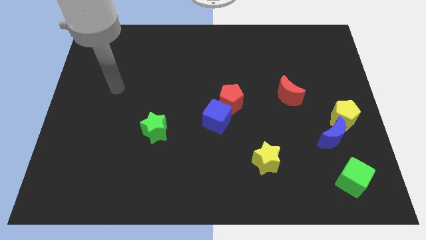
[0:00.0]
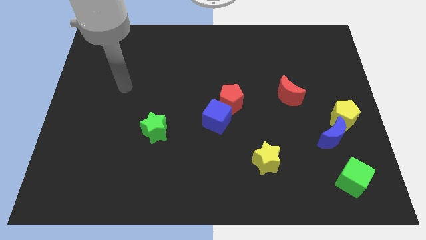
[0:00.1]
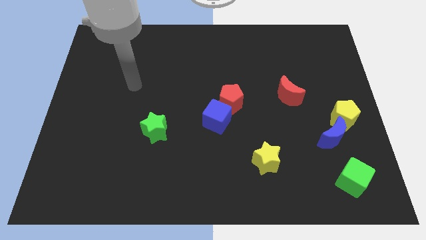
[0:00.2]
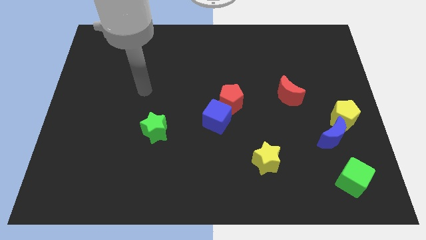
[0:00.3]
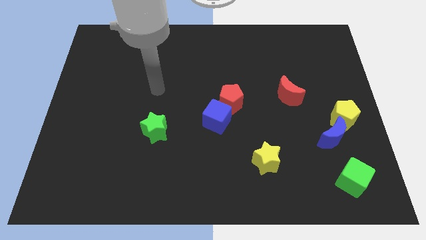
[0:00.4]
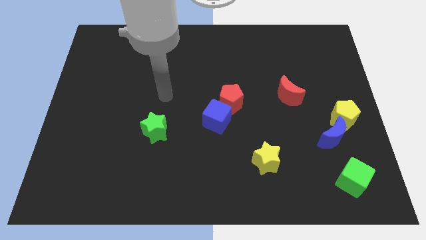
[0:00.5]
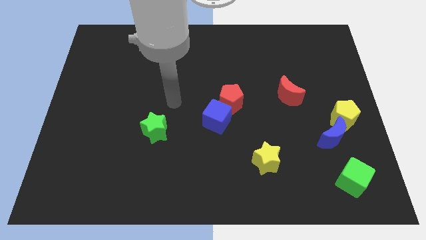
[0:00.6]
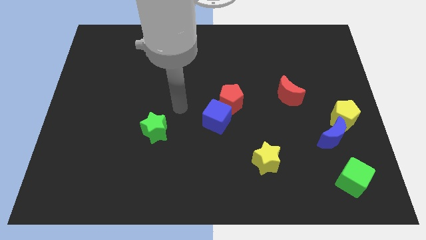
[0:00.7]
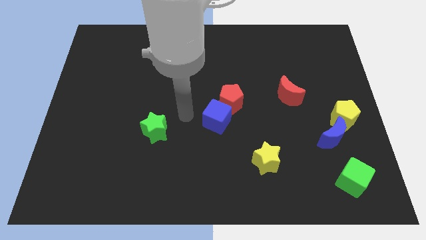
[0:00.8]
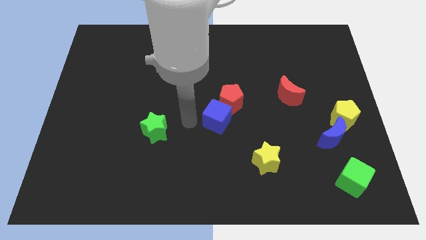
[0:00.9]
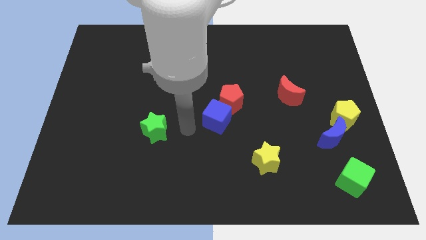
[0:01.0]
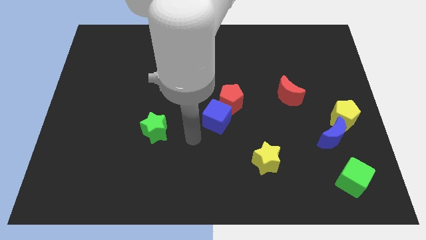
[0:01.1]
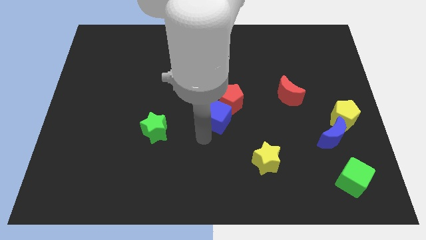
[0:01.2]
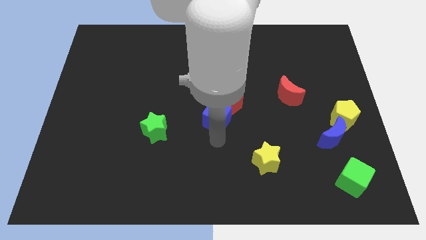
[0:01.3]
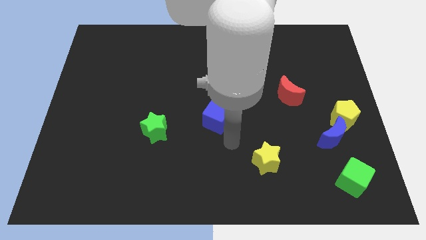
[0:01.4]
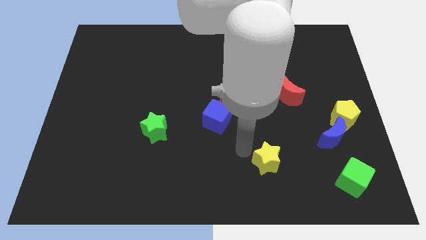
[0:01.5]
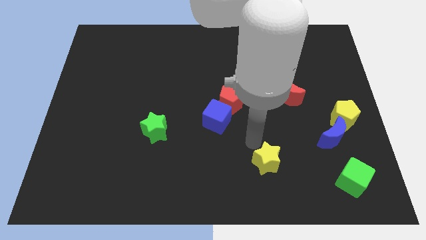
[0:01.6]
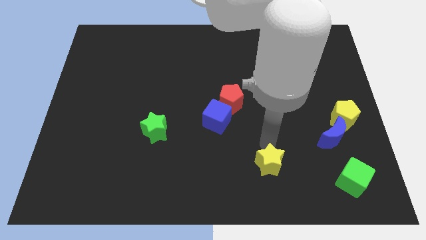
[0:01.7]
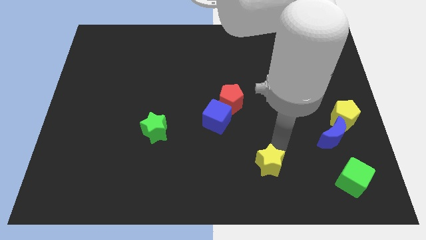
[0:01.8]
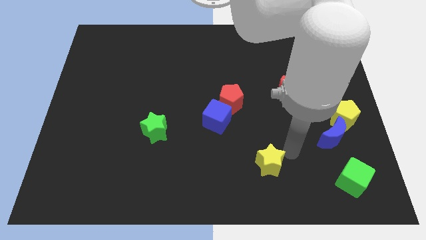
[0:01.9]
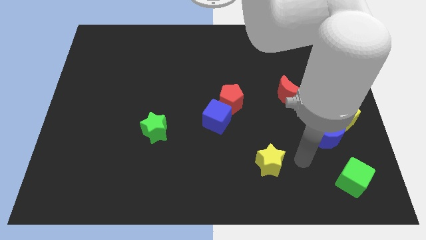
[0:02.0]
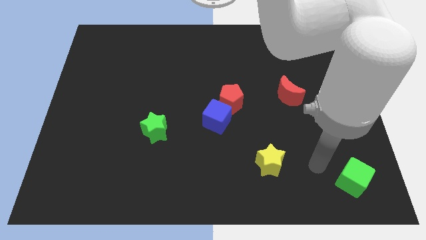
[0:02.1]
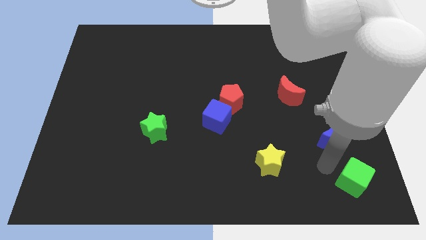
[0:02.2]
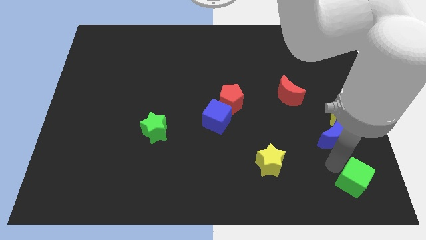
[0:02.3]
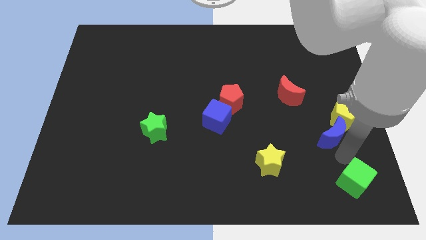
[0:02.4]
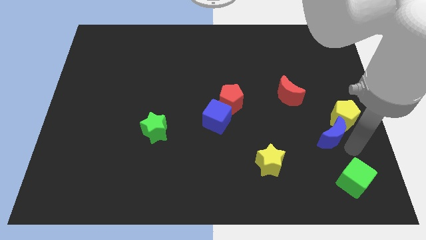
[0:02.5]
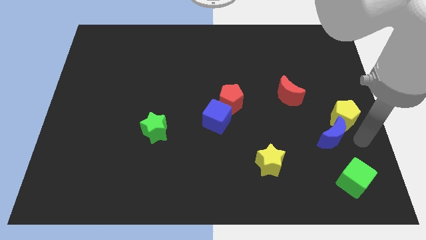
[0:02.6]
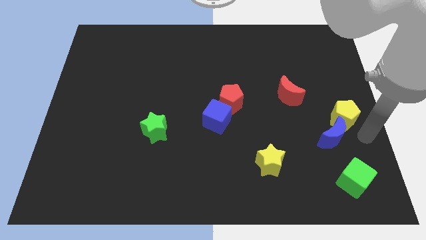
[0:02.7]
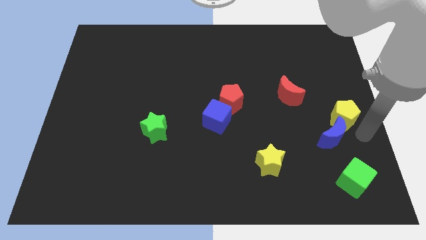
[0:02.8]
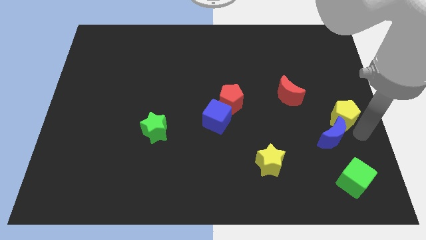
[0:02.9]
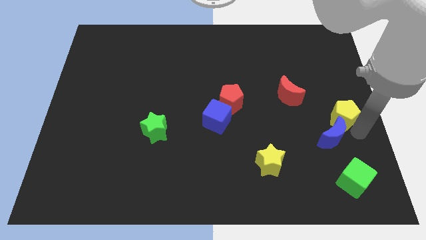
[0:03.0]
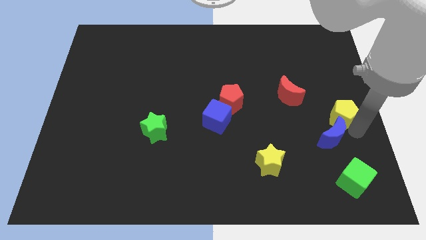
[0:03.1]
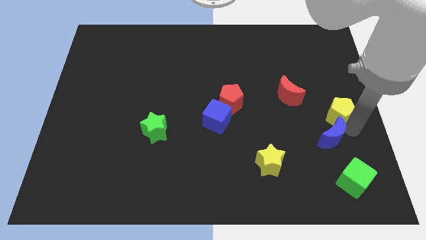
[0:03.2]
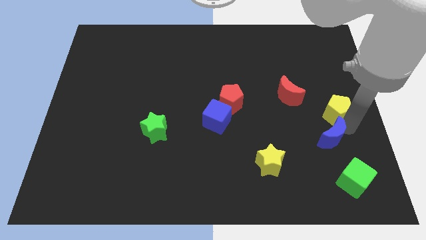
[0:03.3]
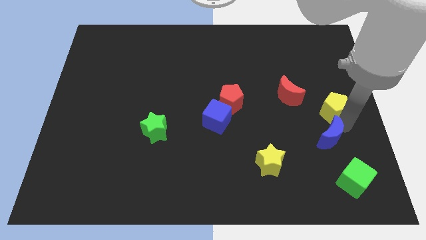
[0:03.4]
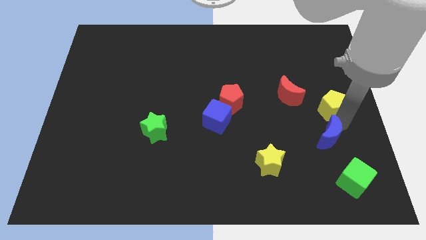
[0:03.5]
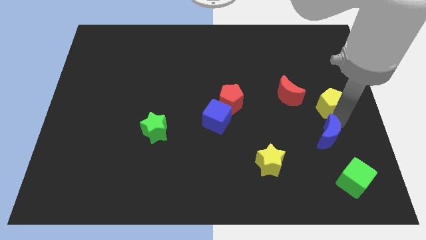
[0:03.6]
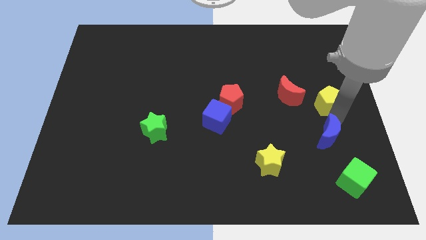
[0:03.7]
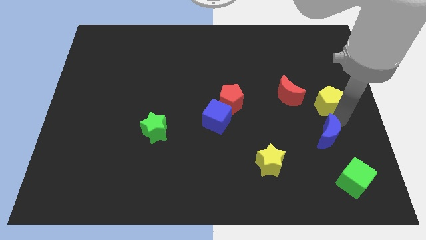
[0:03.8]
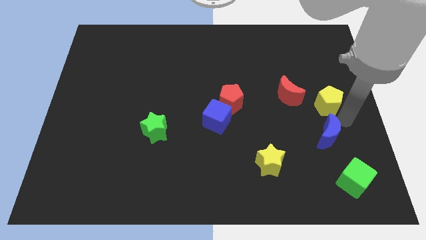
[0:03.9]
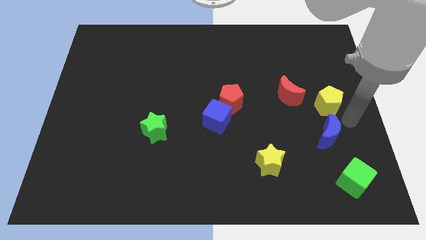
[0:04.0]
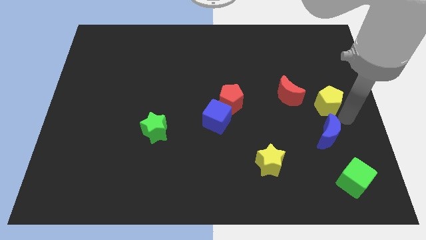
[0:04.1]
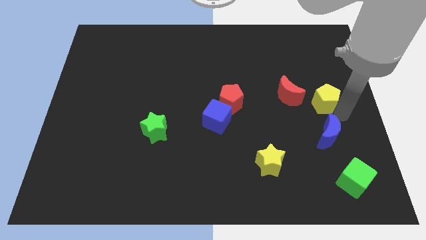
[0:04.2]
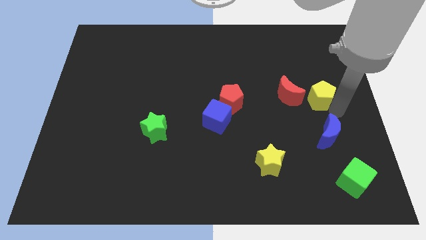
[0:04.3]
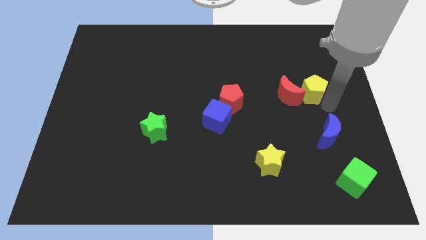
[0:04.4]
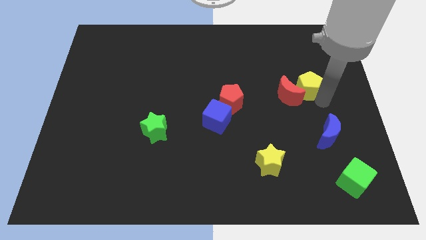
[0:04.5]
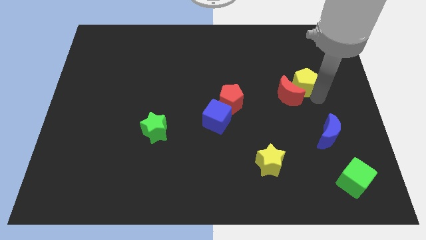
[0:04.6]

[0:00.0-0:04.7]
move the yellow pentagon above the red moon

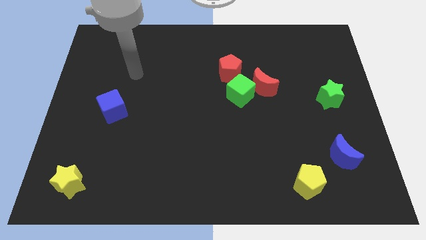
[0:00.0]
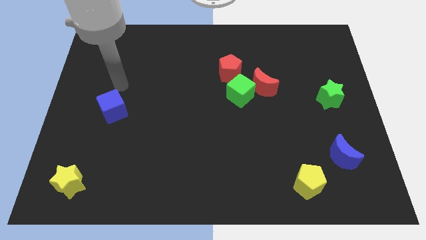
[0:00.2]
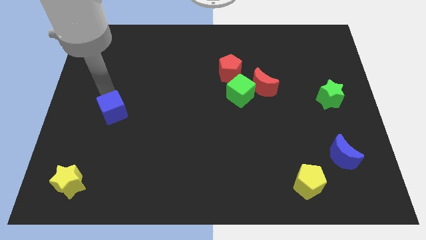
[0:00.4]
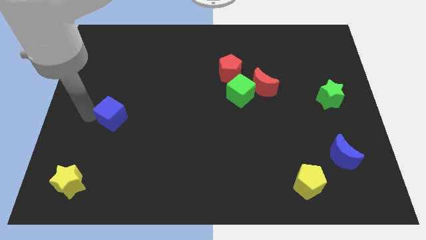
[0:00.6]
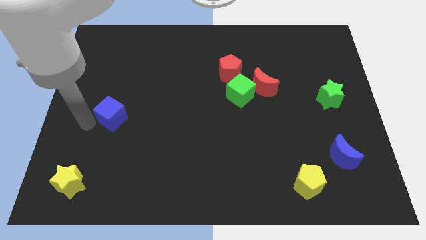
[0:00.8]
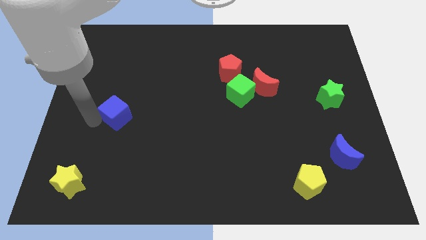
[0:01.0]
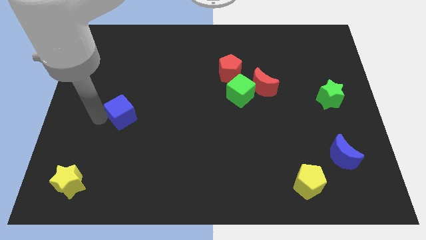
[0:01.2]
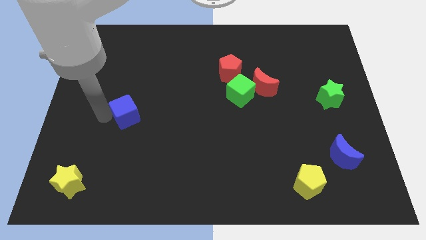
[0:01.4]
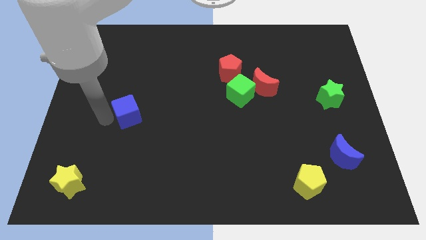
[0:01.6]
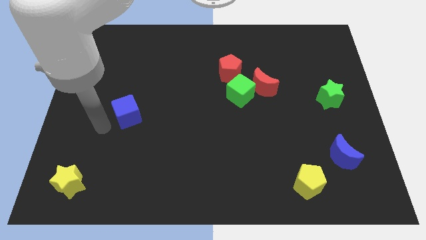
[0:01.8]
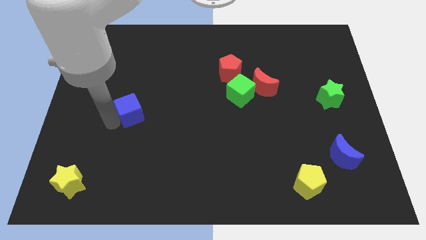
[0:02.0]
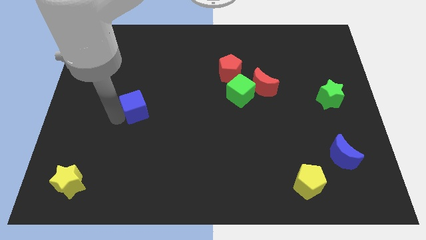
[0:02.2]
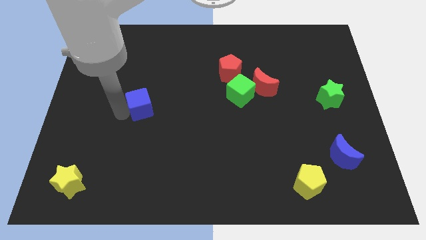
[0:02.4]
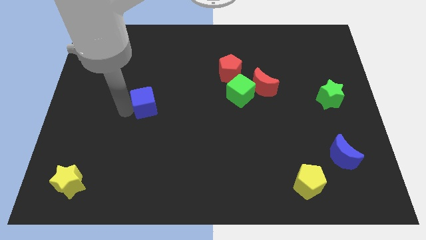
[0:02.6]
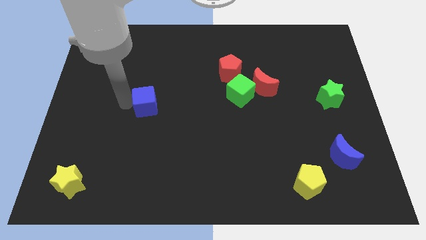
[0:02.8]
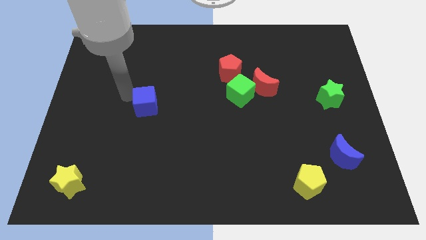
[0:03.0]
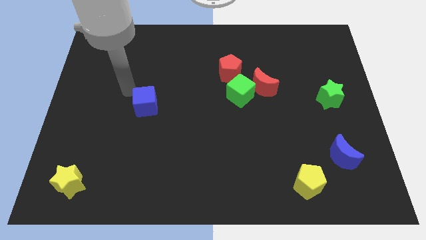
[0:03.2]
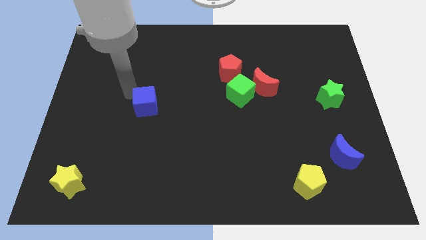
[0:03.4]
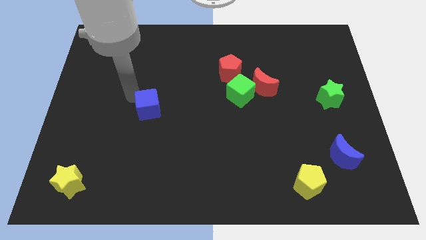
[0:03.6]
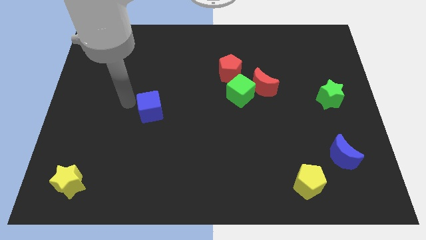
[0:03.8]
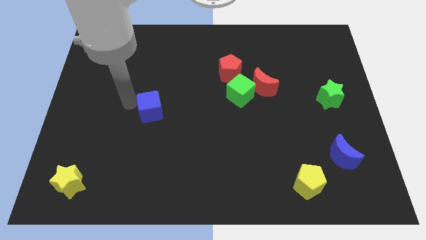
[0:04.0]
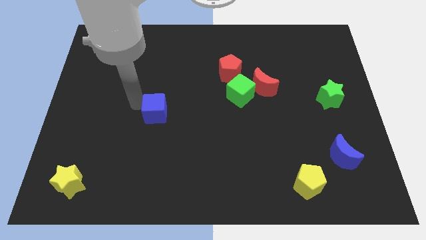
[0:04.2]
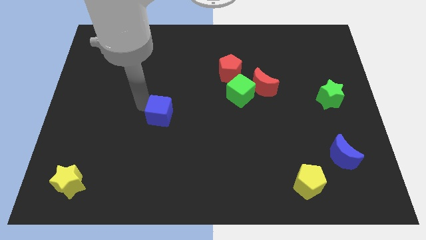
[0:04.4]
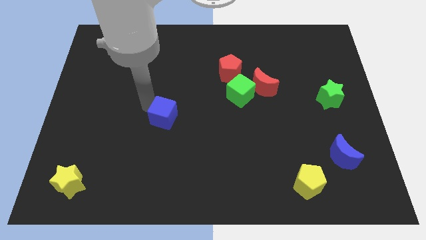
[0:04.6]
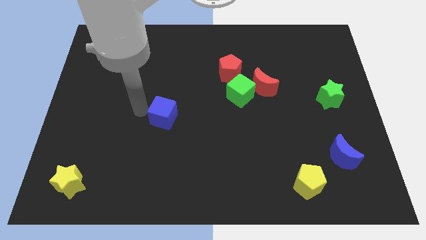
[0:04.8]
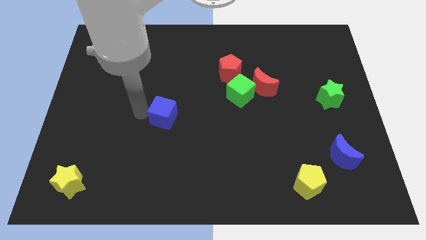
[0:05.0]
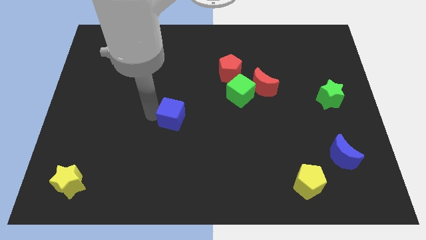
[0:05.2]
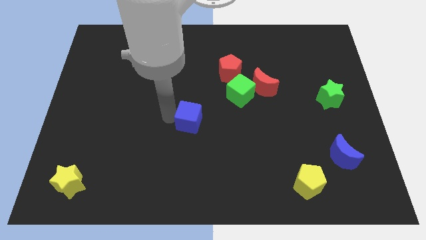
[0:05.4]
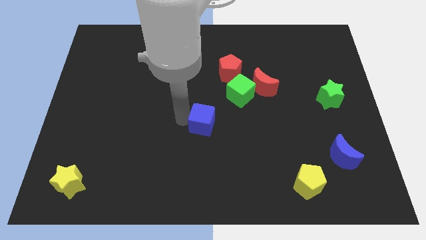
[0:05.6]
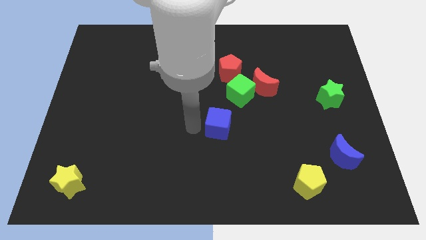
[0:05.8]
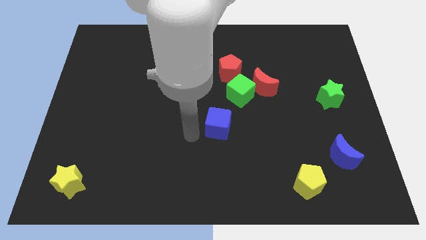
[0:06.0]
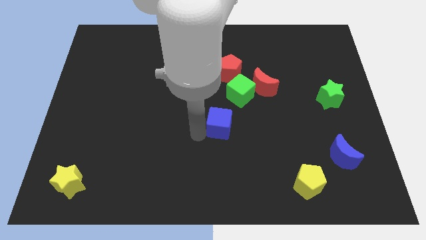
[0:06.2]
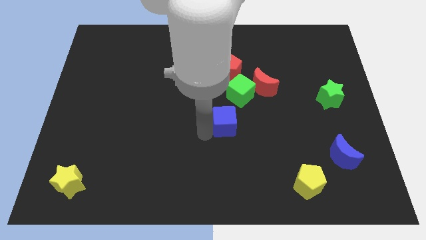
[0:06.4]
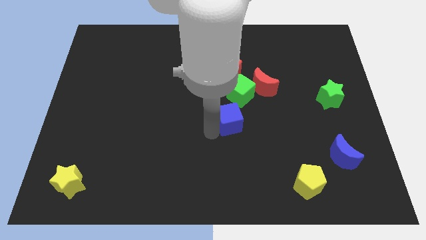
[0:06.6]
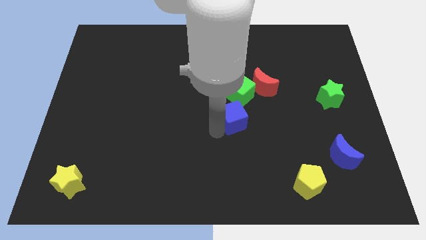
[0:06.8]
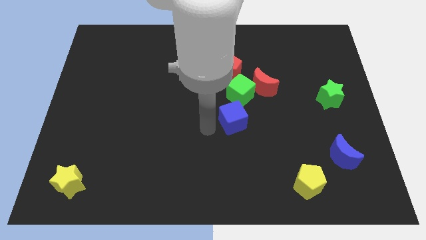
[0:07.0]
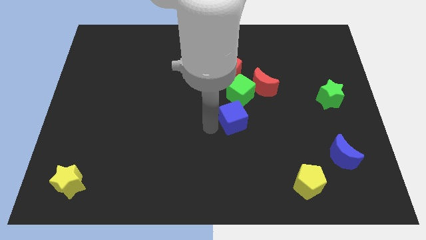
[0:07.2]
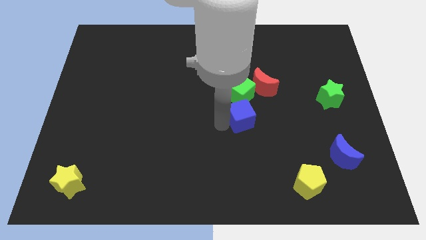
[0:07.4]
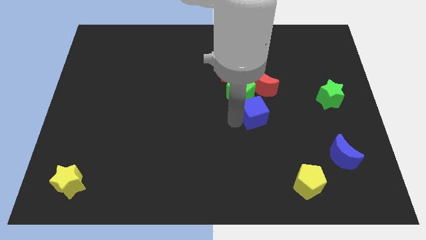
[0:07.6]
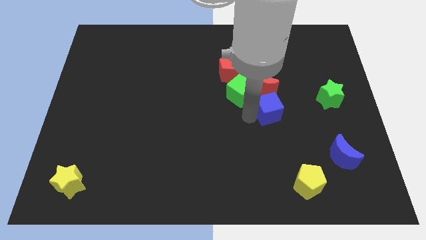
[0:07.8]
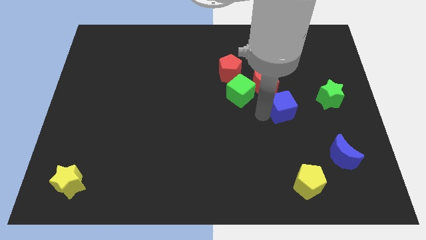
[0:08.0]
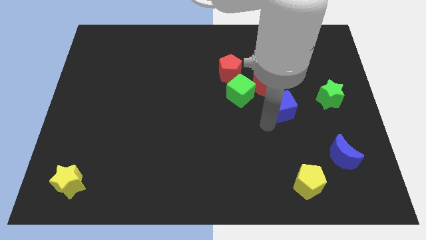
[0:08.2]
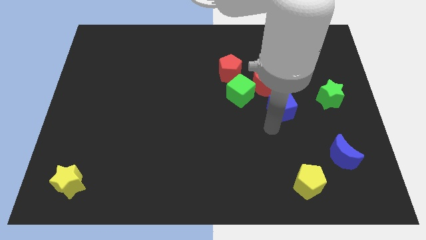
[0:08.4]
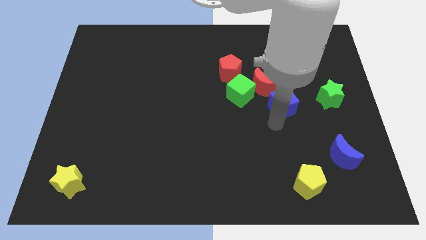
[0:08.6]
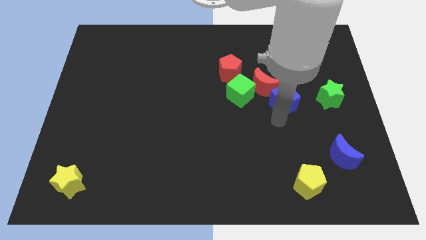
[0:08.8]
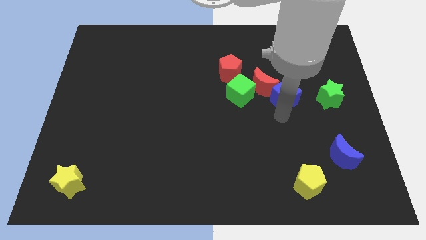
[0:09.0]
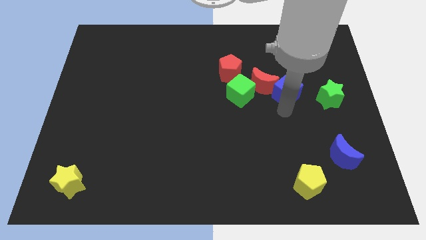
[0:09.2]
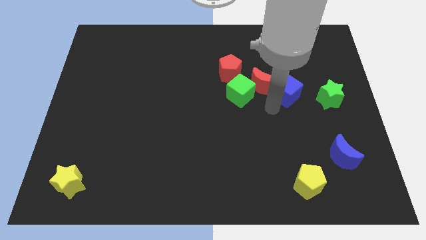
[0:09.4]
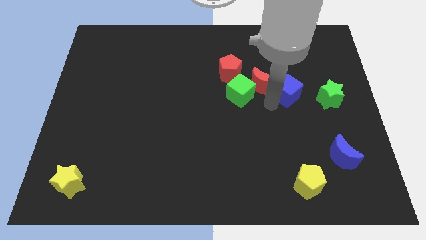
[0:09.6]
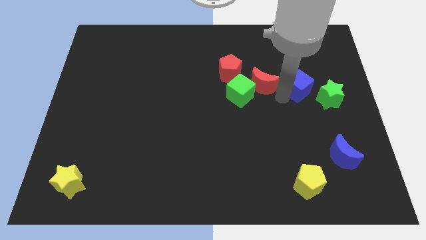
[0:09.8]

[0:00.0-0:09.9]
move the blue cube diagonally up and to the left of the green star
